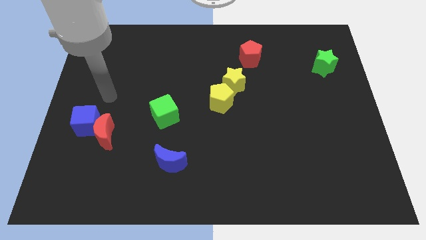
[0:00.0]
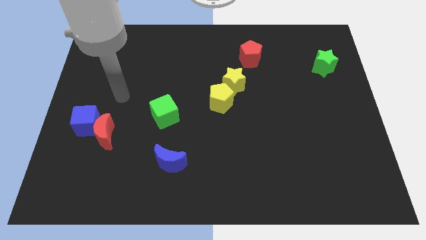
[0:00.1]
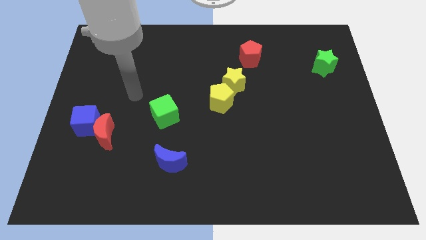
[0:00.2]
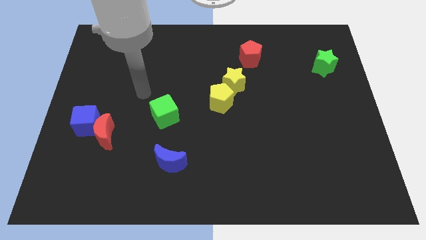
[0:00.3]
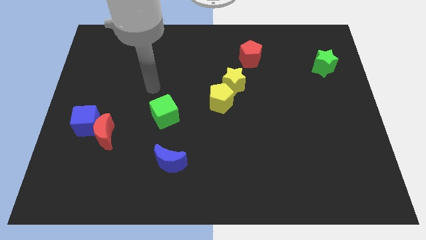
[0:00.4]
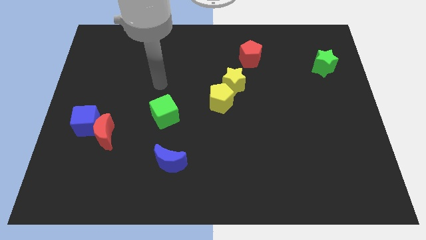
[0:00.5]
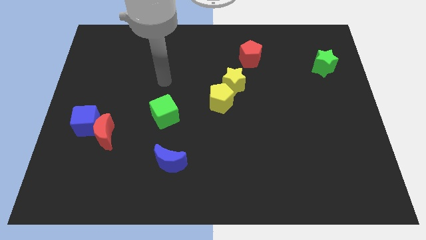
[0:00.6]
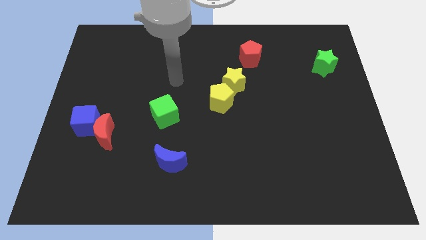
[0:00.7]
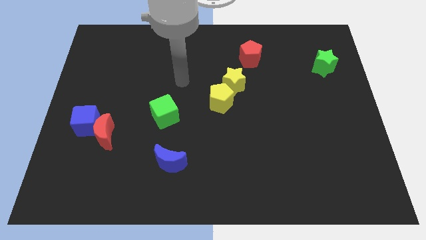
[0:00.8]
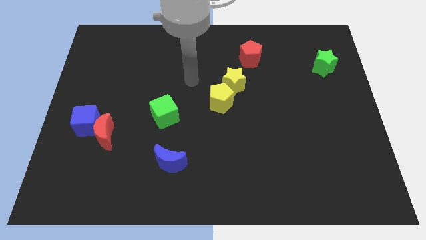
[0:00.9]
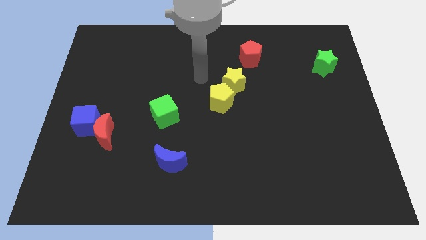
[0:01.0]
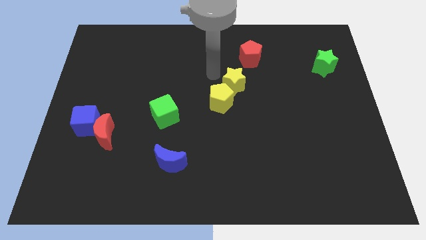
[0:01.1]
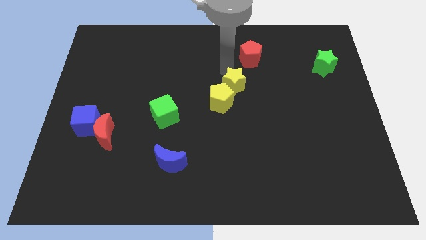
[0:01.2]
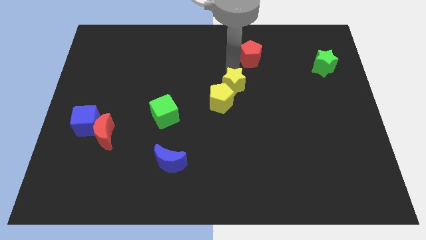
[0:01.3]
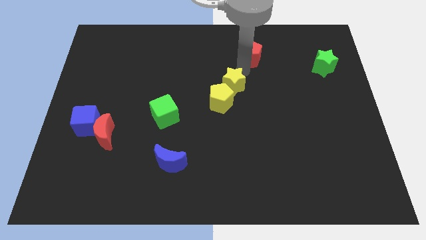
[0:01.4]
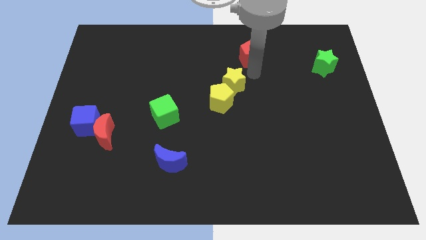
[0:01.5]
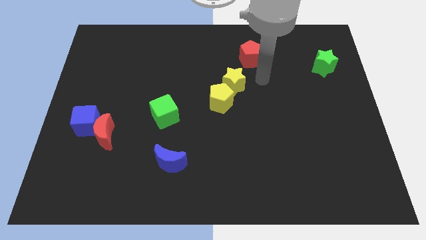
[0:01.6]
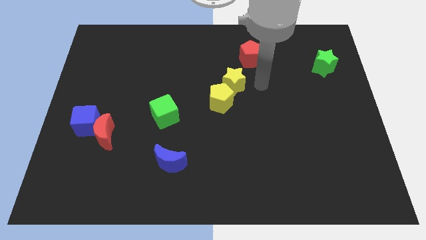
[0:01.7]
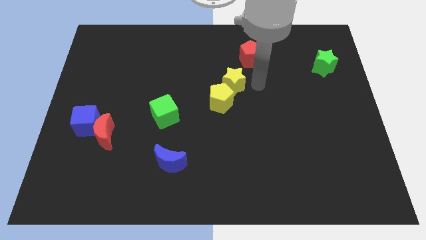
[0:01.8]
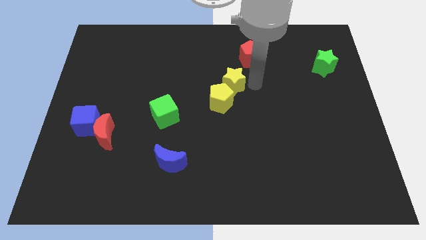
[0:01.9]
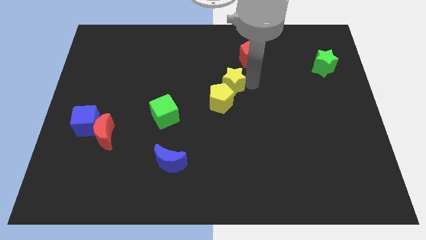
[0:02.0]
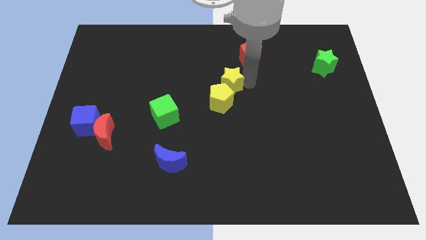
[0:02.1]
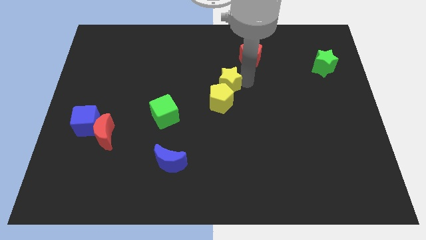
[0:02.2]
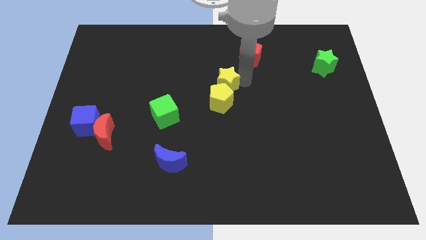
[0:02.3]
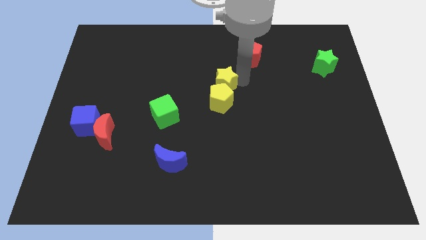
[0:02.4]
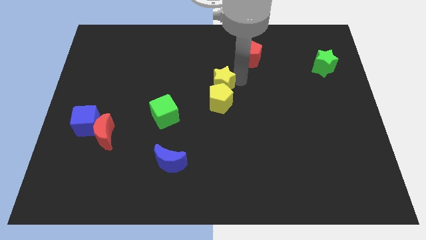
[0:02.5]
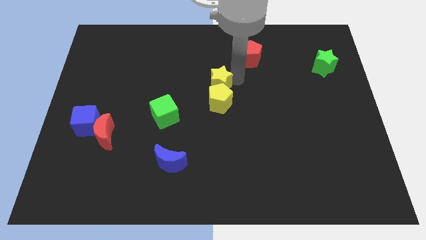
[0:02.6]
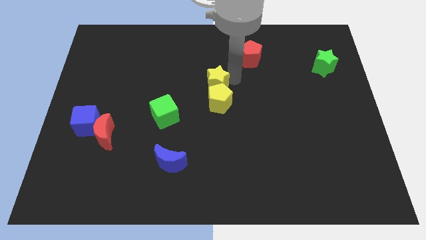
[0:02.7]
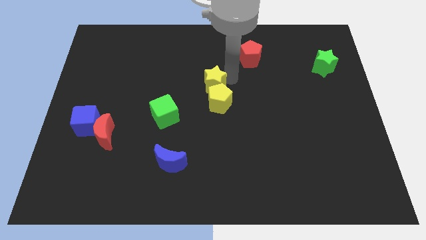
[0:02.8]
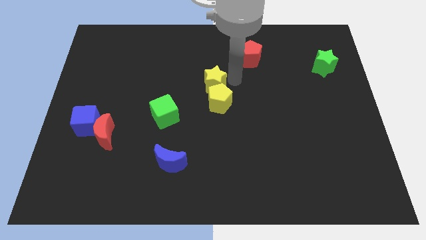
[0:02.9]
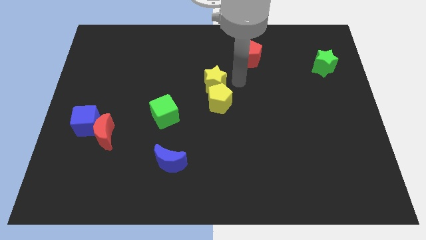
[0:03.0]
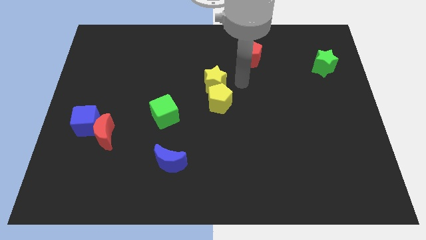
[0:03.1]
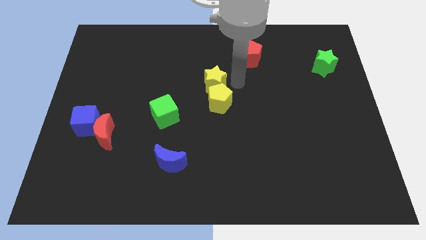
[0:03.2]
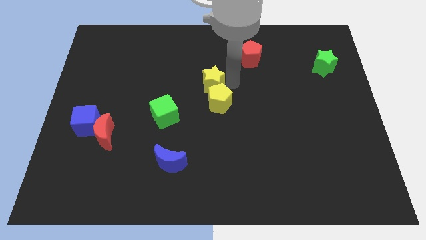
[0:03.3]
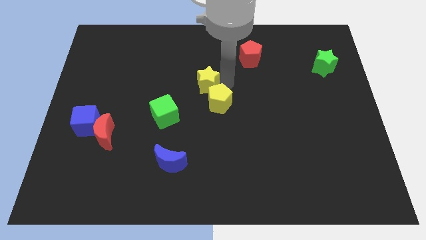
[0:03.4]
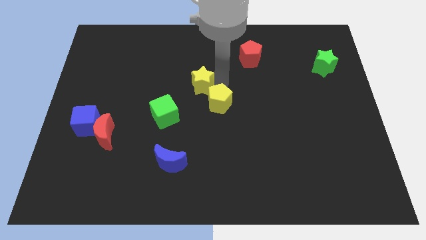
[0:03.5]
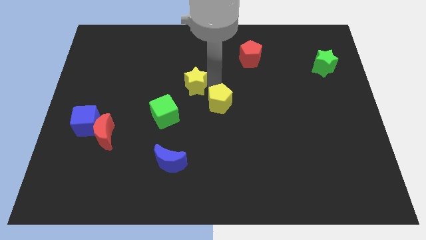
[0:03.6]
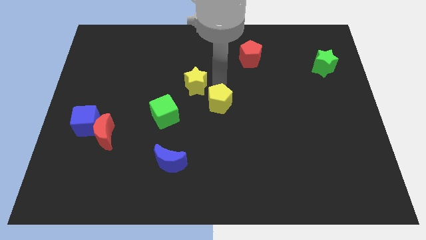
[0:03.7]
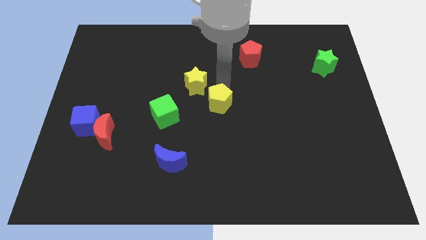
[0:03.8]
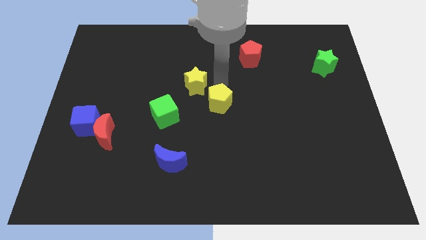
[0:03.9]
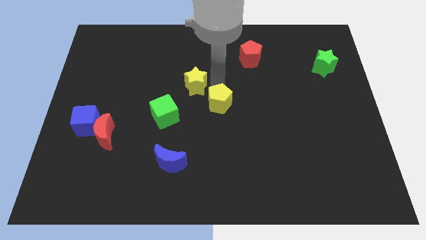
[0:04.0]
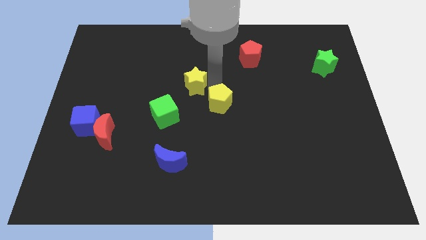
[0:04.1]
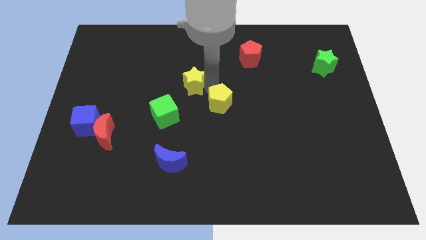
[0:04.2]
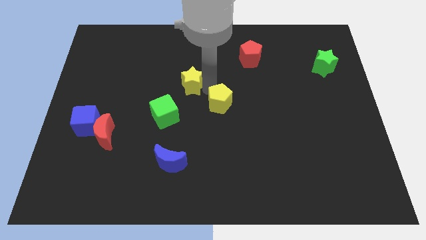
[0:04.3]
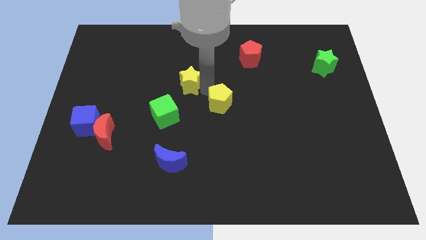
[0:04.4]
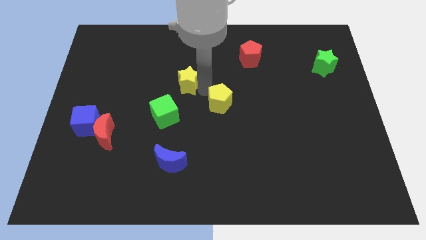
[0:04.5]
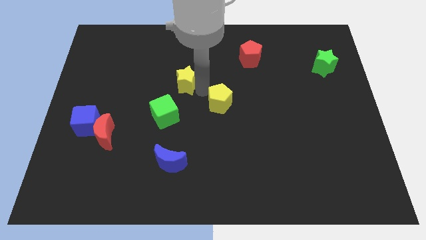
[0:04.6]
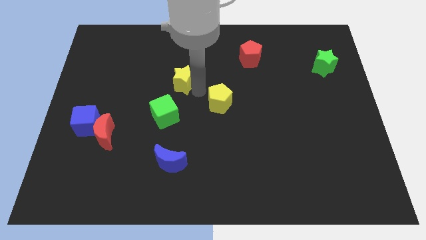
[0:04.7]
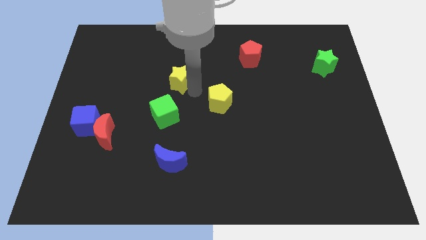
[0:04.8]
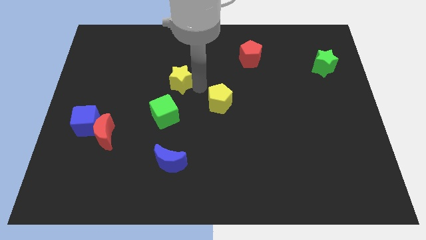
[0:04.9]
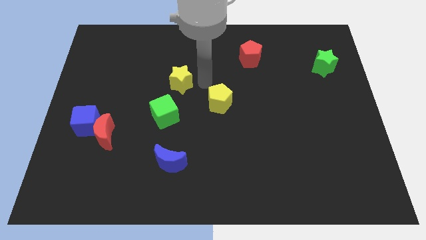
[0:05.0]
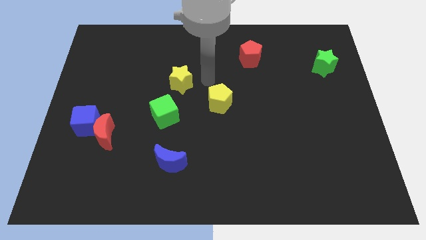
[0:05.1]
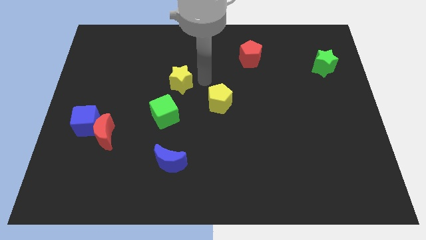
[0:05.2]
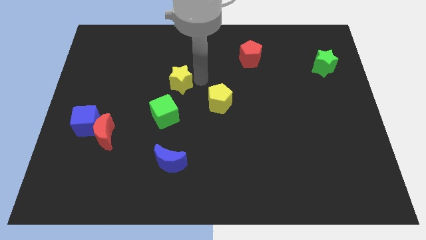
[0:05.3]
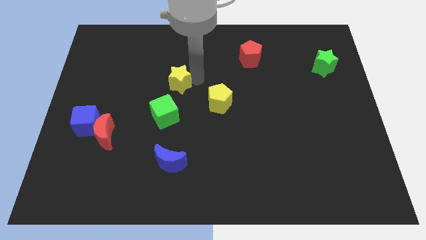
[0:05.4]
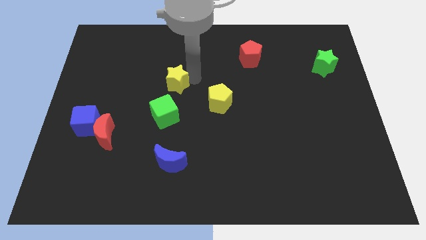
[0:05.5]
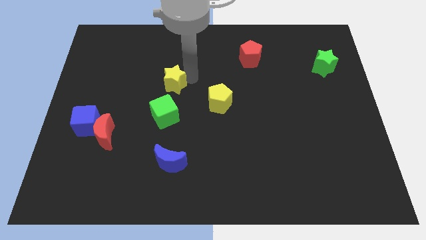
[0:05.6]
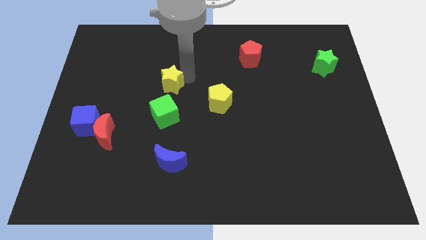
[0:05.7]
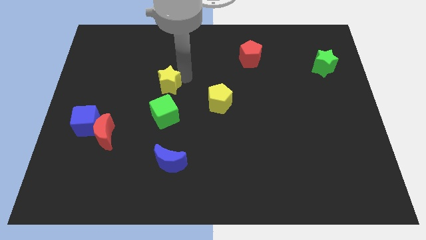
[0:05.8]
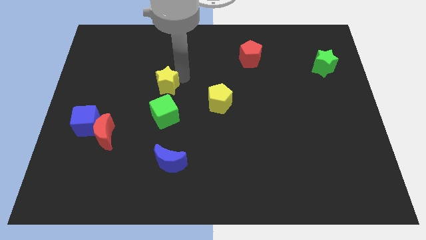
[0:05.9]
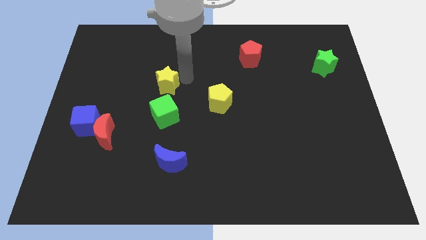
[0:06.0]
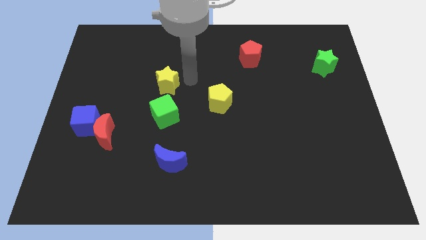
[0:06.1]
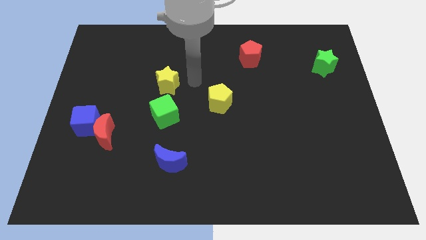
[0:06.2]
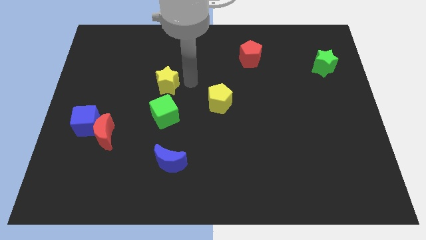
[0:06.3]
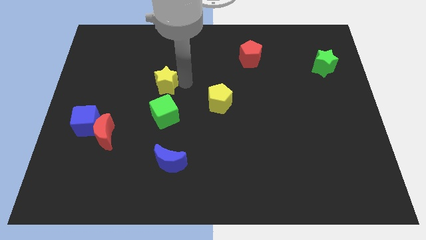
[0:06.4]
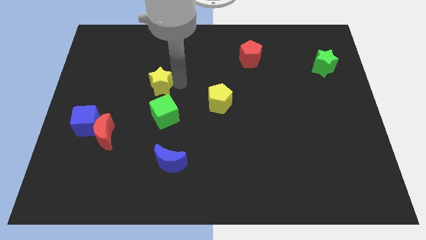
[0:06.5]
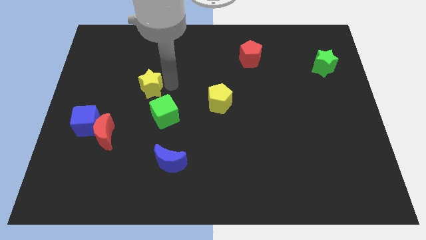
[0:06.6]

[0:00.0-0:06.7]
push the yellow star left

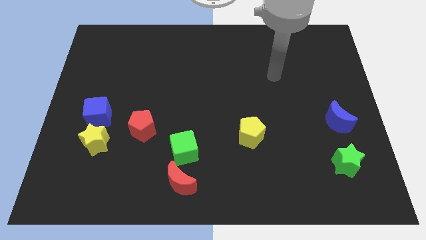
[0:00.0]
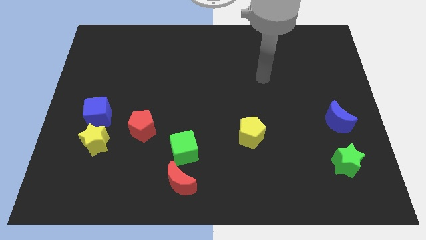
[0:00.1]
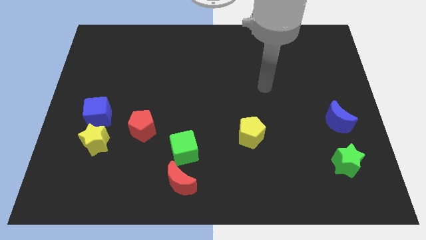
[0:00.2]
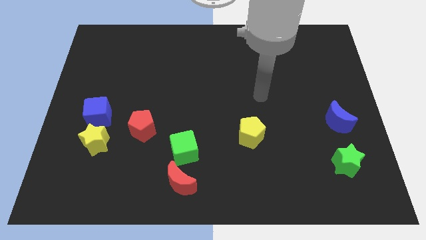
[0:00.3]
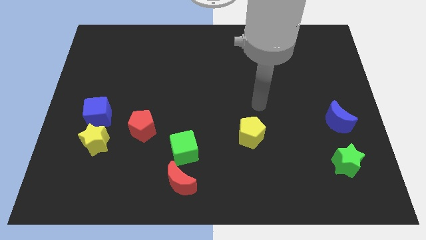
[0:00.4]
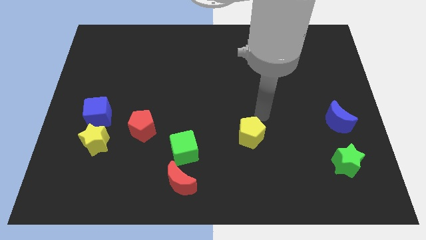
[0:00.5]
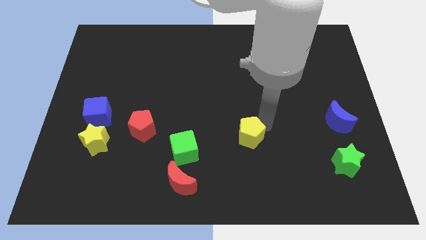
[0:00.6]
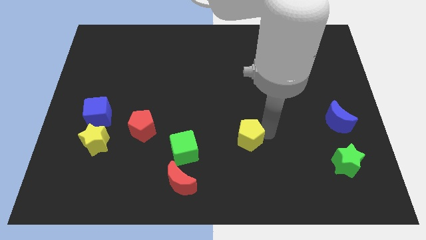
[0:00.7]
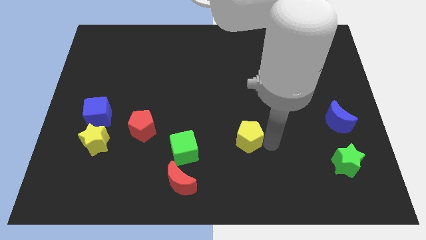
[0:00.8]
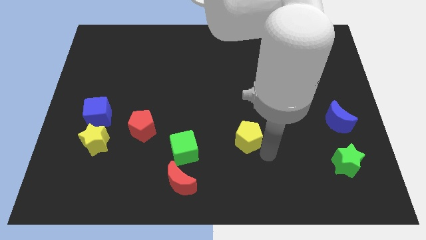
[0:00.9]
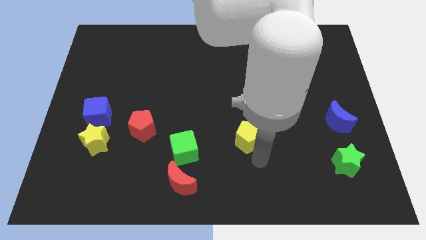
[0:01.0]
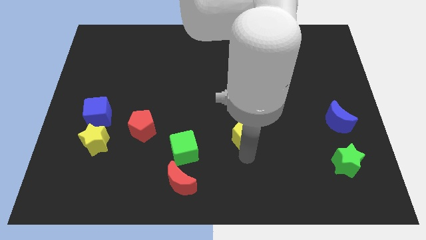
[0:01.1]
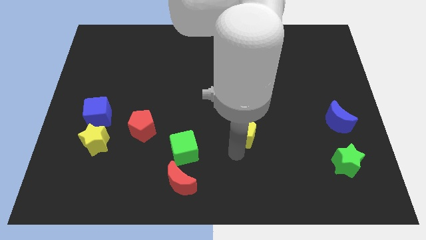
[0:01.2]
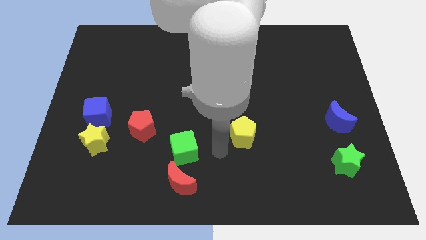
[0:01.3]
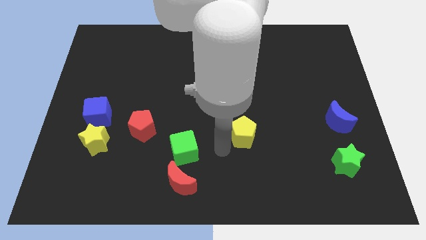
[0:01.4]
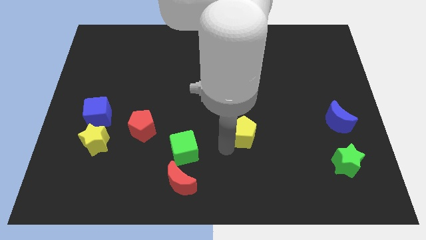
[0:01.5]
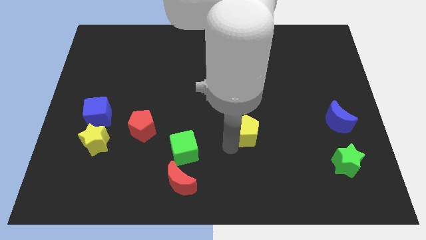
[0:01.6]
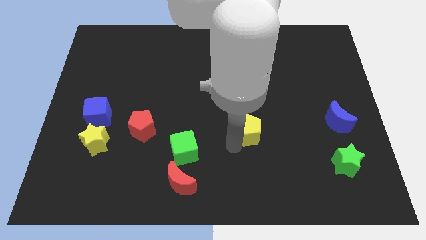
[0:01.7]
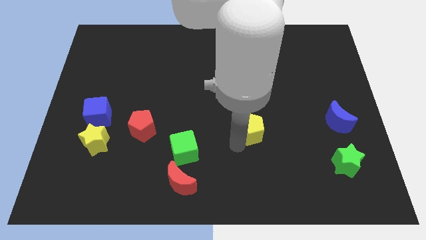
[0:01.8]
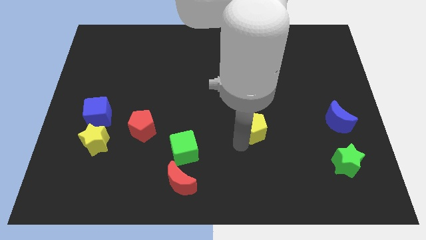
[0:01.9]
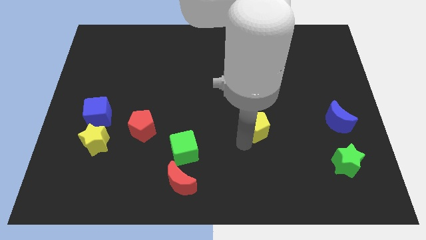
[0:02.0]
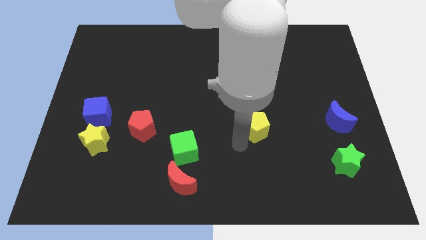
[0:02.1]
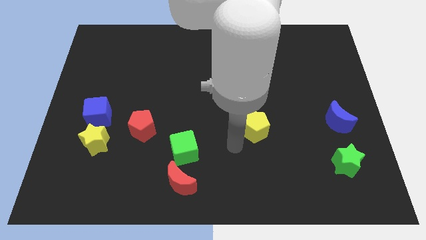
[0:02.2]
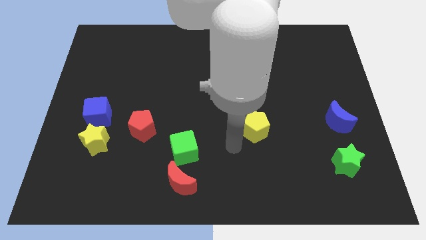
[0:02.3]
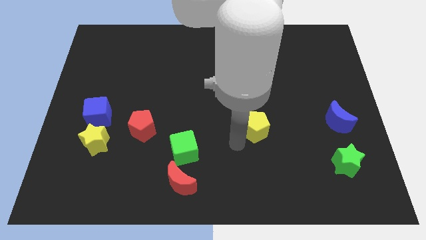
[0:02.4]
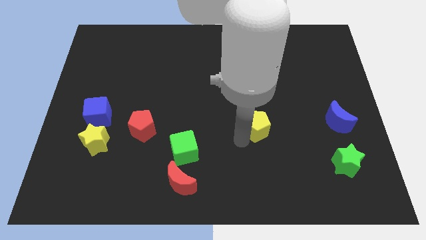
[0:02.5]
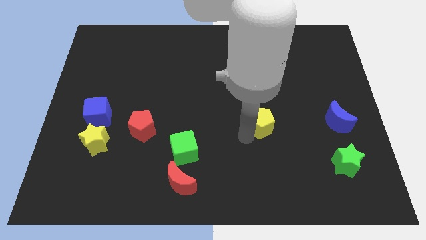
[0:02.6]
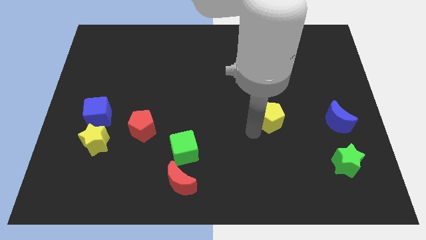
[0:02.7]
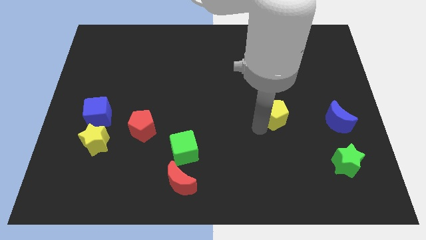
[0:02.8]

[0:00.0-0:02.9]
slightly move the yellow pentagon up and right
